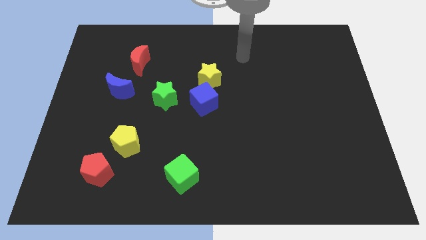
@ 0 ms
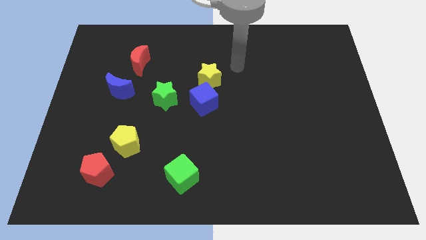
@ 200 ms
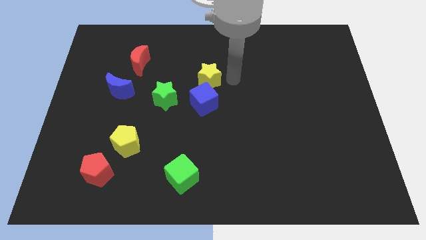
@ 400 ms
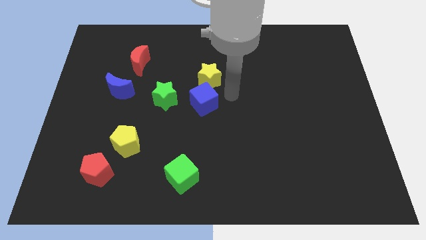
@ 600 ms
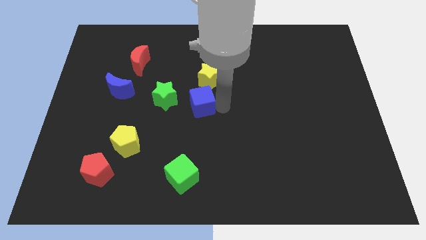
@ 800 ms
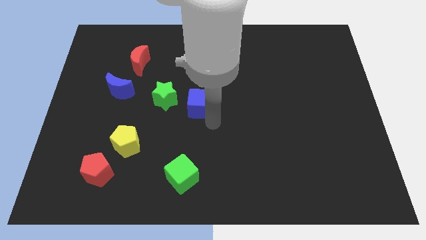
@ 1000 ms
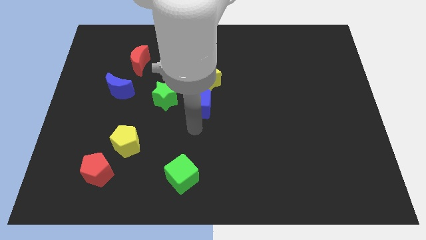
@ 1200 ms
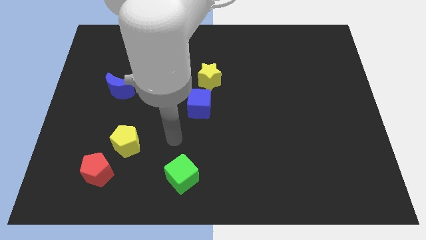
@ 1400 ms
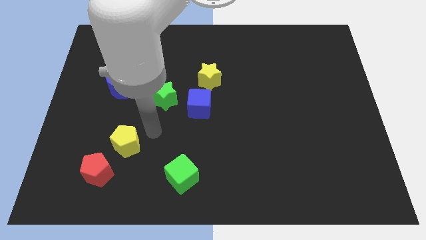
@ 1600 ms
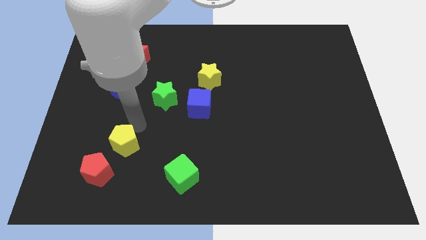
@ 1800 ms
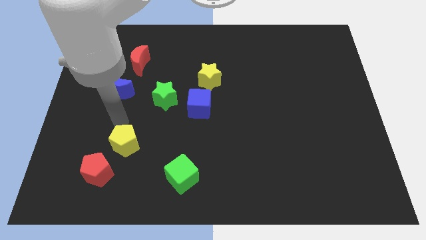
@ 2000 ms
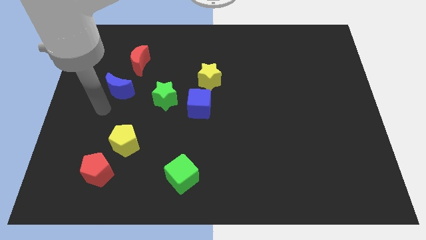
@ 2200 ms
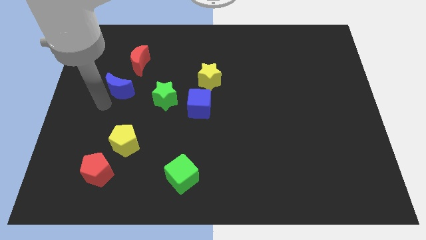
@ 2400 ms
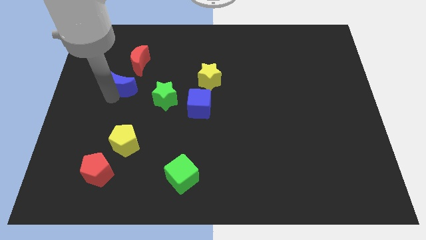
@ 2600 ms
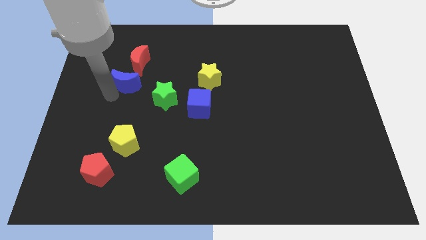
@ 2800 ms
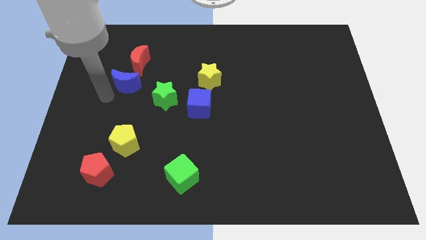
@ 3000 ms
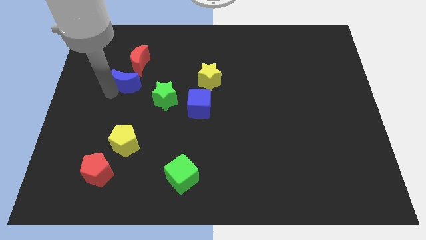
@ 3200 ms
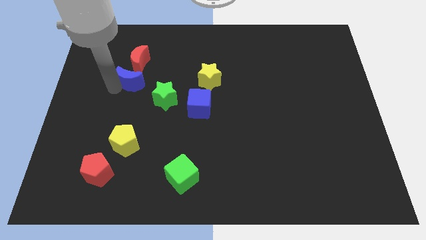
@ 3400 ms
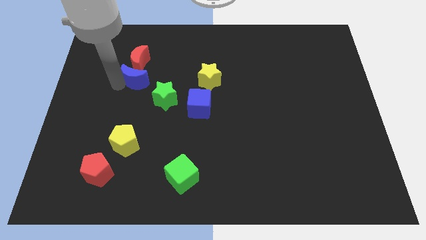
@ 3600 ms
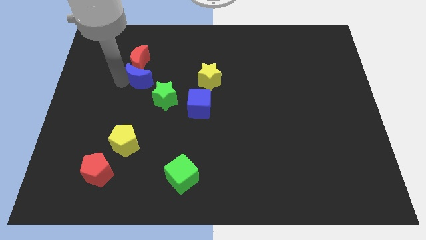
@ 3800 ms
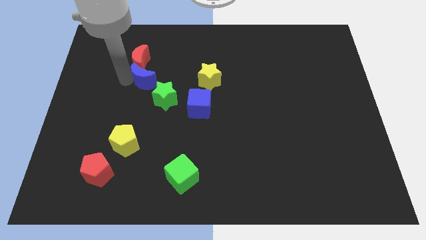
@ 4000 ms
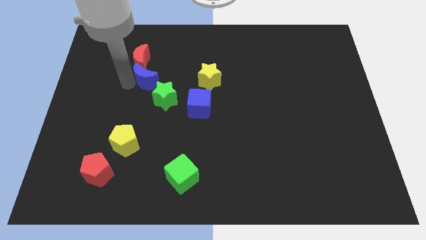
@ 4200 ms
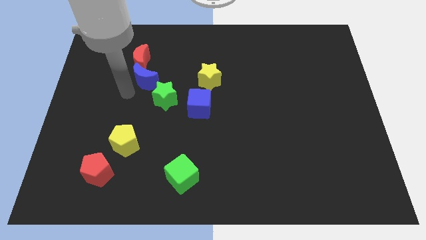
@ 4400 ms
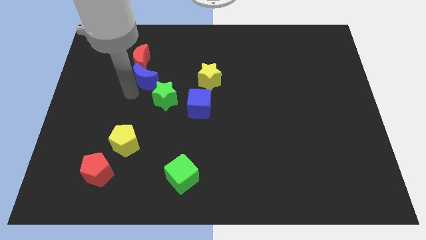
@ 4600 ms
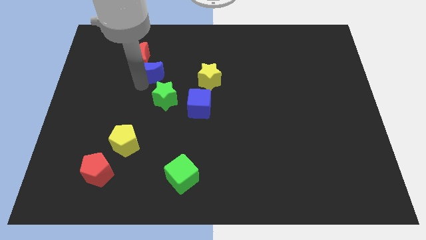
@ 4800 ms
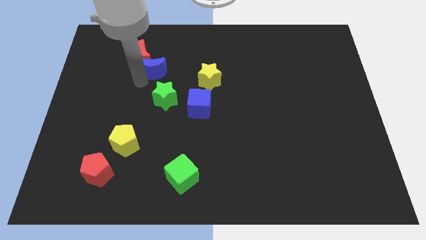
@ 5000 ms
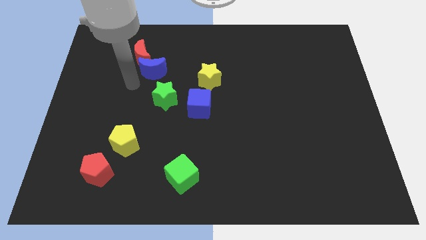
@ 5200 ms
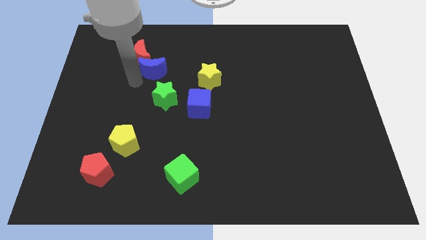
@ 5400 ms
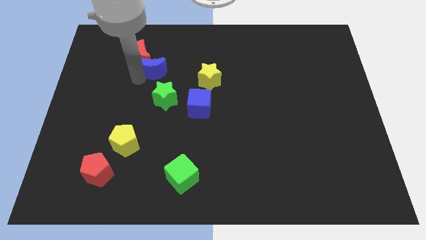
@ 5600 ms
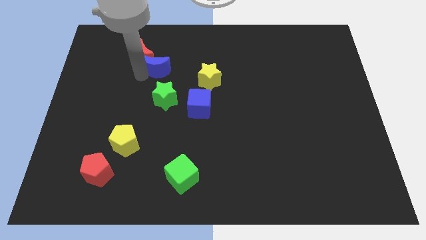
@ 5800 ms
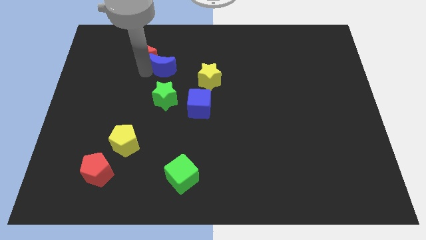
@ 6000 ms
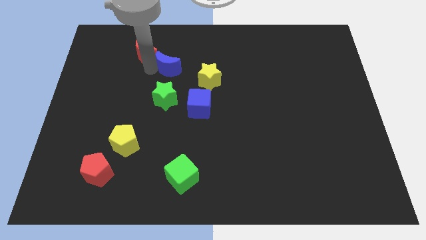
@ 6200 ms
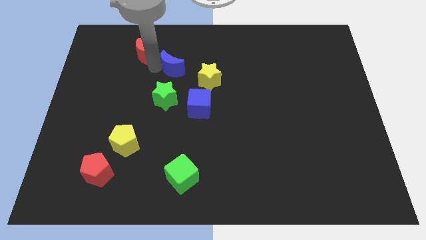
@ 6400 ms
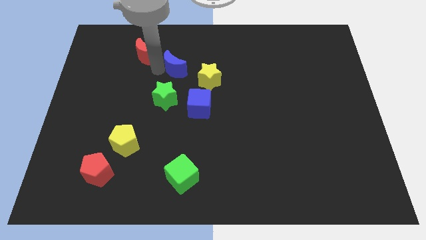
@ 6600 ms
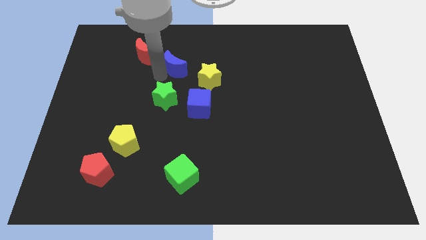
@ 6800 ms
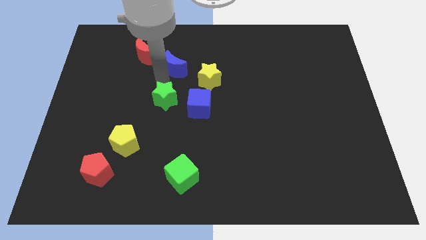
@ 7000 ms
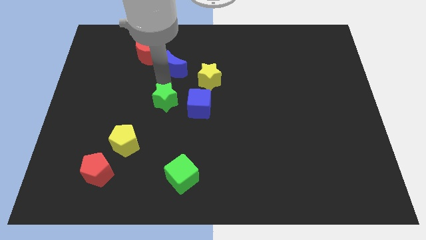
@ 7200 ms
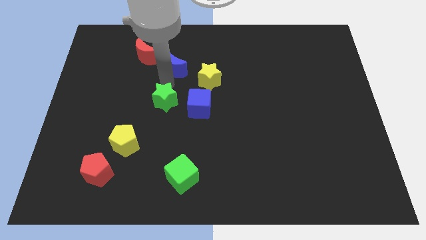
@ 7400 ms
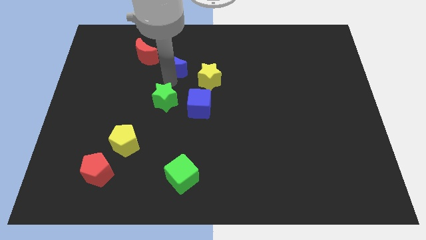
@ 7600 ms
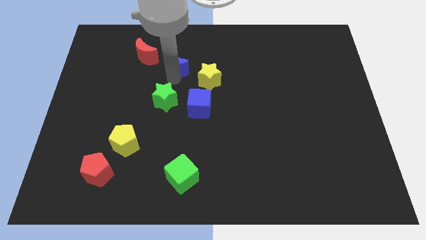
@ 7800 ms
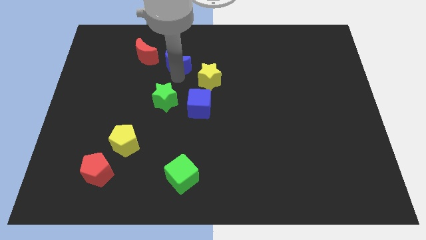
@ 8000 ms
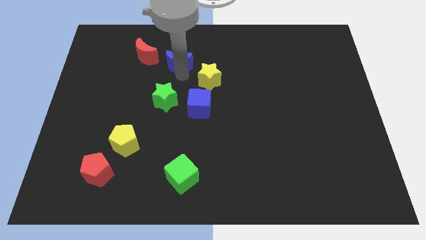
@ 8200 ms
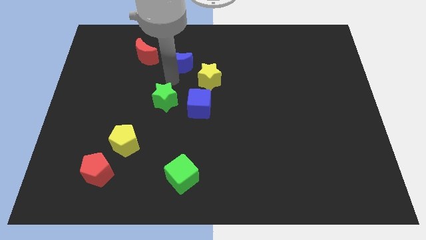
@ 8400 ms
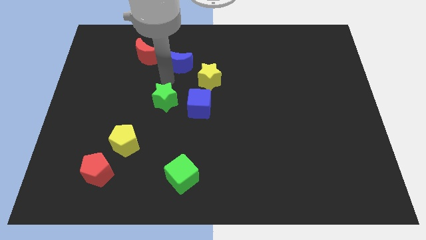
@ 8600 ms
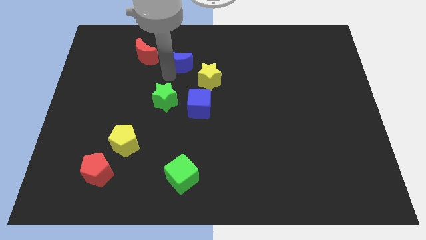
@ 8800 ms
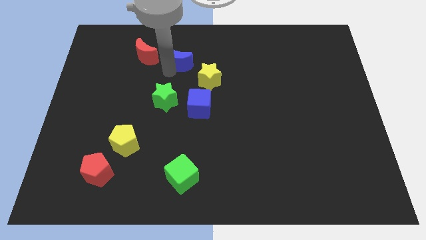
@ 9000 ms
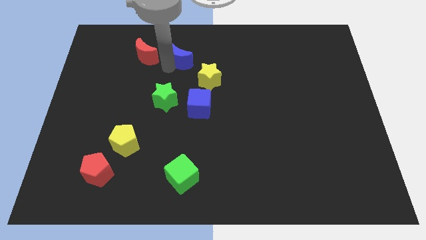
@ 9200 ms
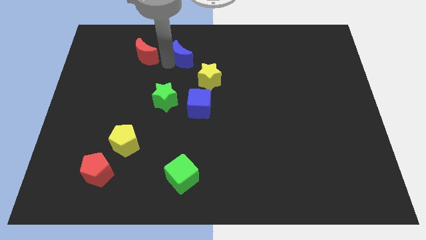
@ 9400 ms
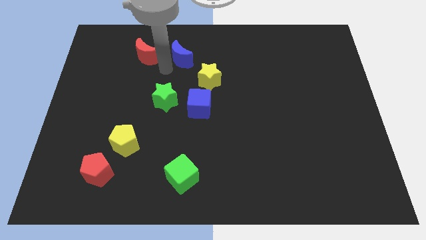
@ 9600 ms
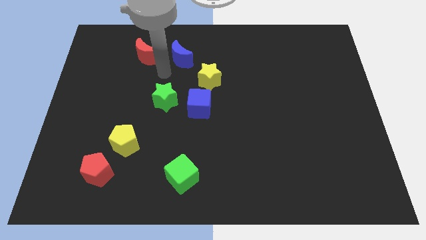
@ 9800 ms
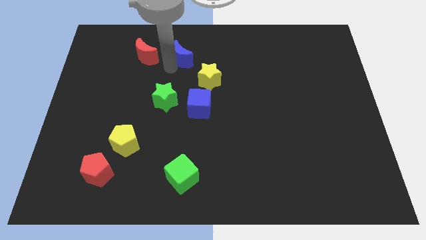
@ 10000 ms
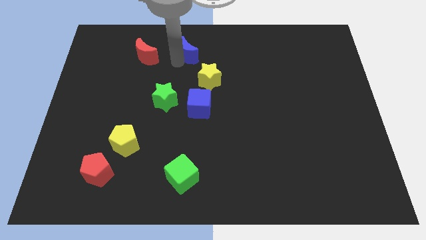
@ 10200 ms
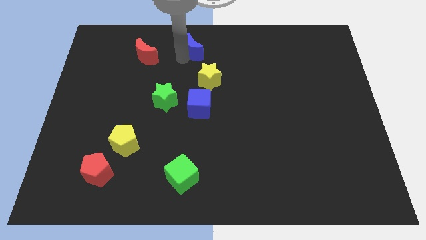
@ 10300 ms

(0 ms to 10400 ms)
slide the blue moon to the top side

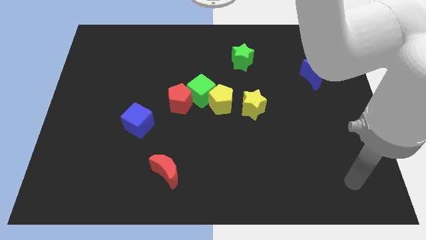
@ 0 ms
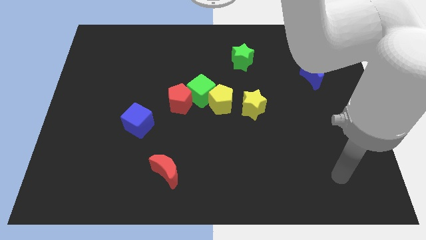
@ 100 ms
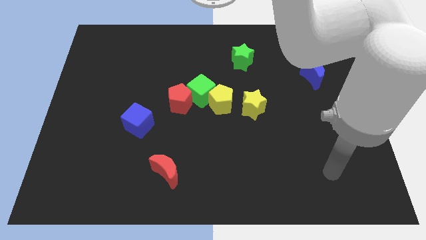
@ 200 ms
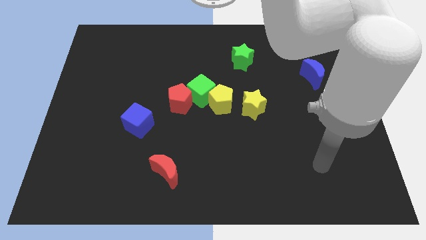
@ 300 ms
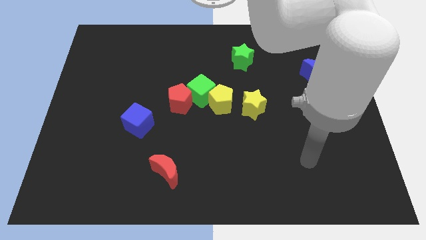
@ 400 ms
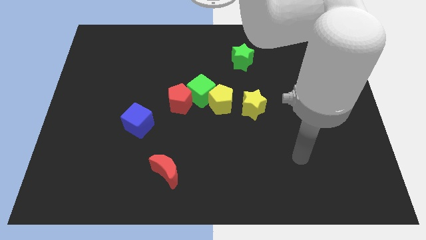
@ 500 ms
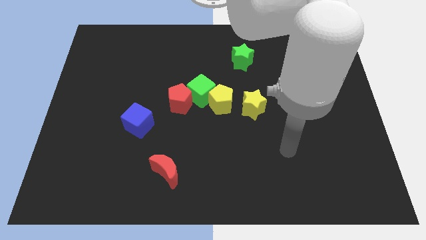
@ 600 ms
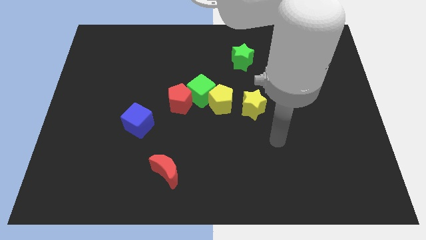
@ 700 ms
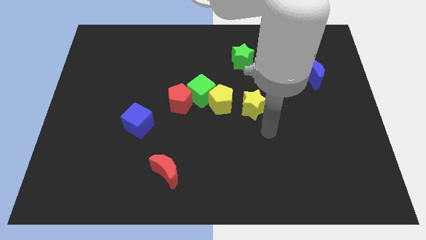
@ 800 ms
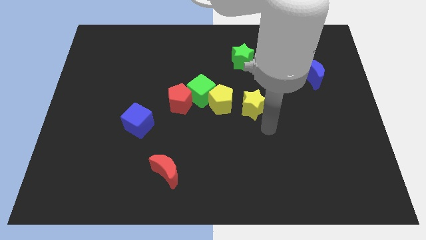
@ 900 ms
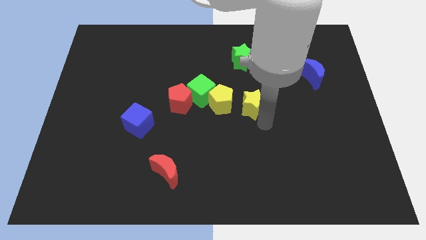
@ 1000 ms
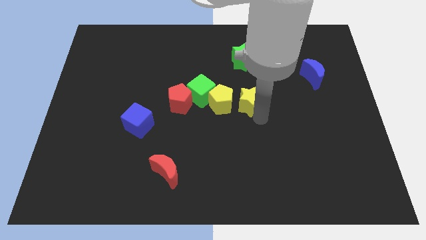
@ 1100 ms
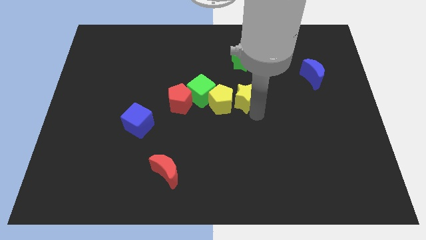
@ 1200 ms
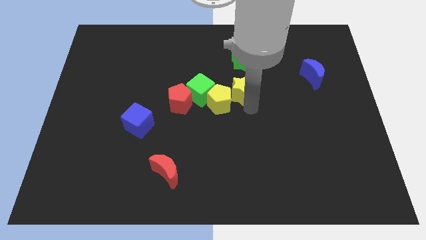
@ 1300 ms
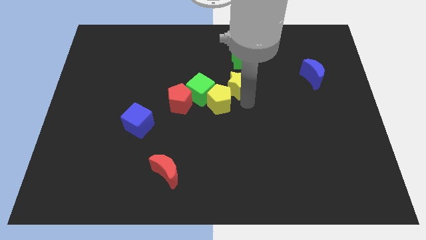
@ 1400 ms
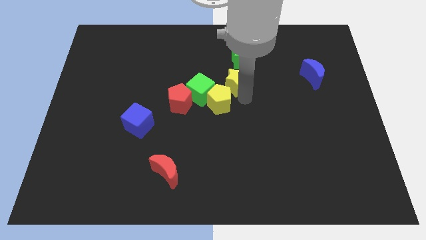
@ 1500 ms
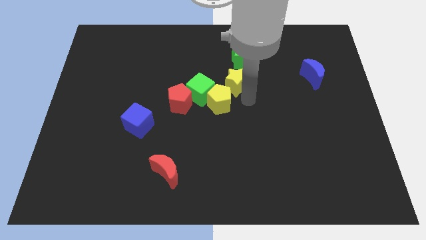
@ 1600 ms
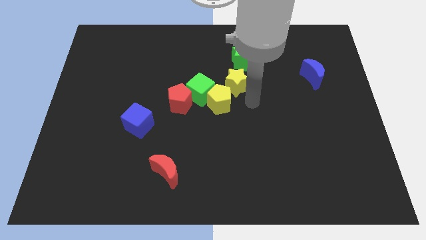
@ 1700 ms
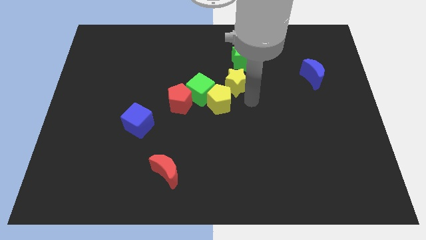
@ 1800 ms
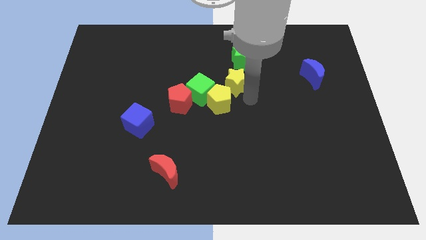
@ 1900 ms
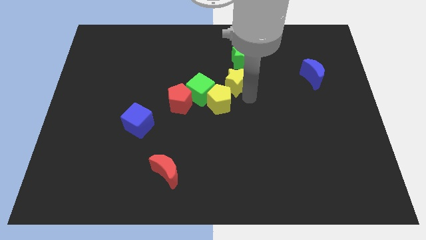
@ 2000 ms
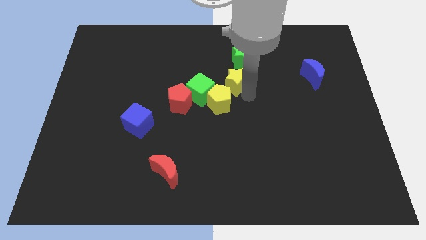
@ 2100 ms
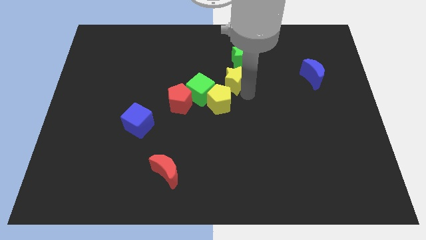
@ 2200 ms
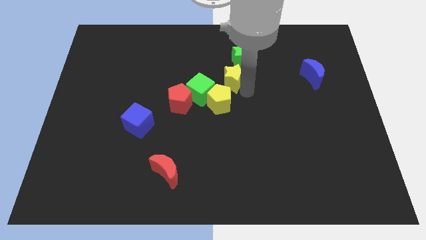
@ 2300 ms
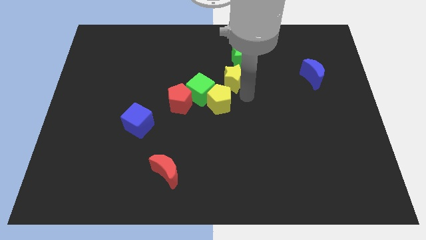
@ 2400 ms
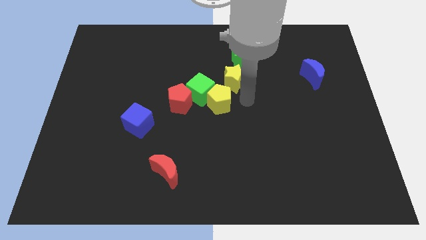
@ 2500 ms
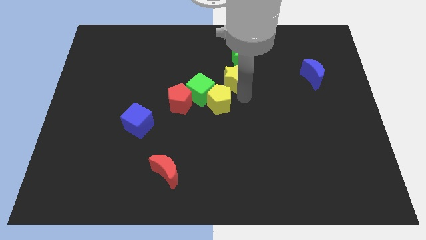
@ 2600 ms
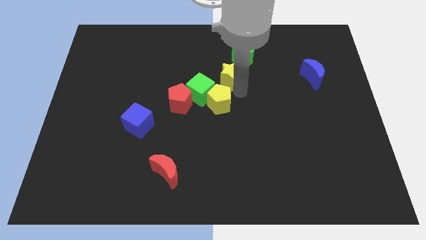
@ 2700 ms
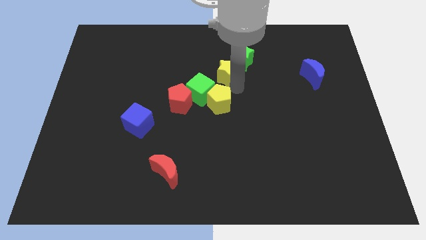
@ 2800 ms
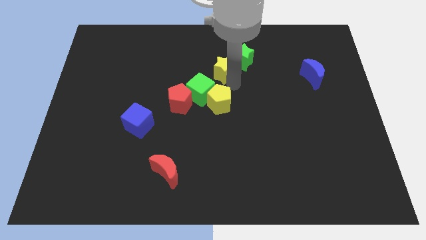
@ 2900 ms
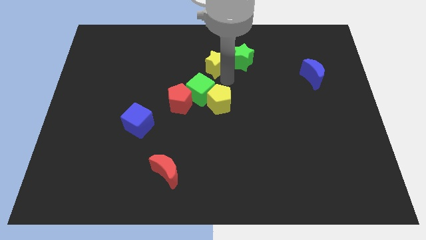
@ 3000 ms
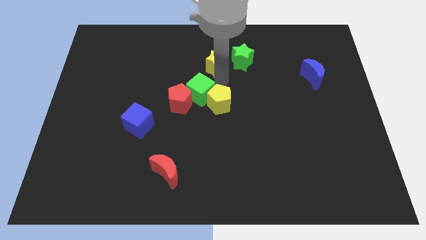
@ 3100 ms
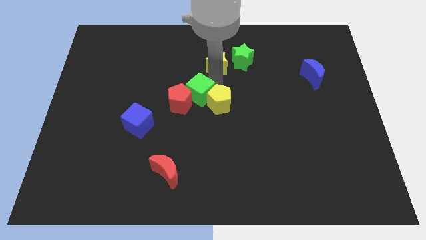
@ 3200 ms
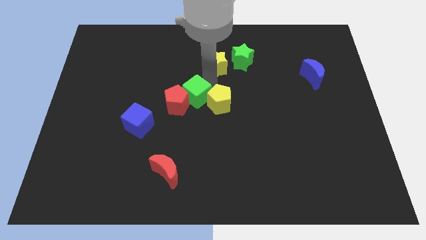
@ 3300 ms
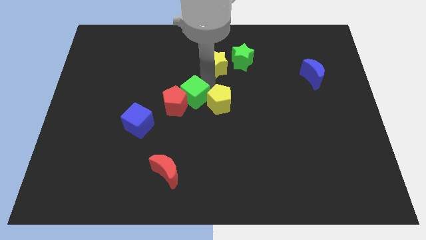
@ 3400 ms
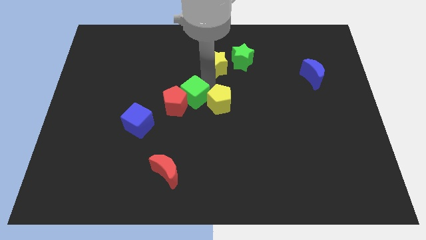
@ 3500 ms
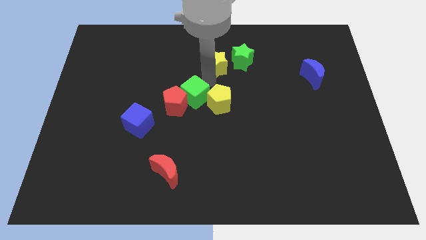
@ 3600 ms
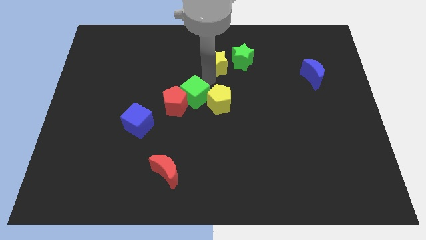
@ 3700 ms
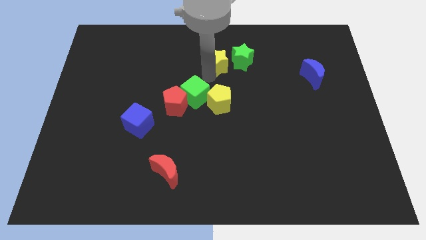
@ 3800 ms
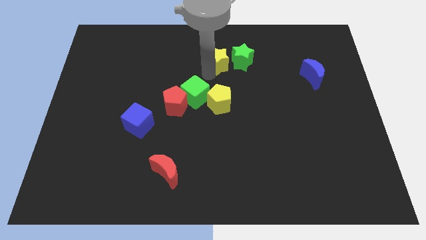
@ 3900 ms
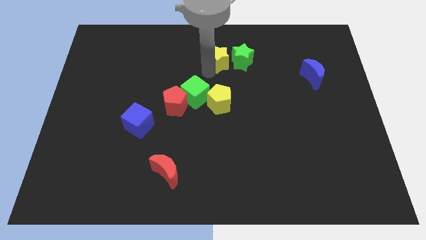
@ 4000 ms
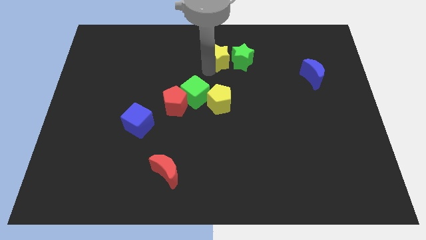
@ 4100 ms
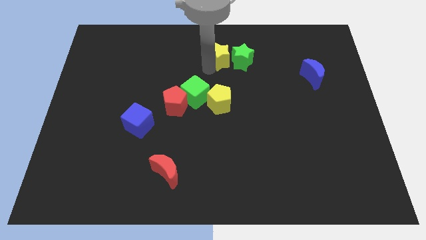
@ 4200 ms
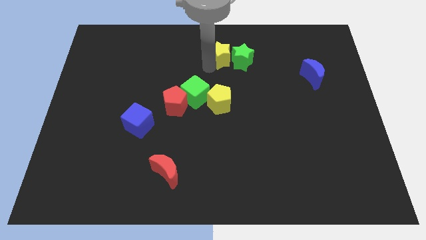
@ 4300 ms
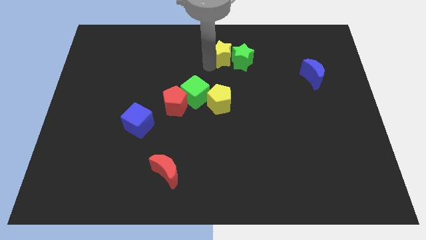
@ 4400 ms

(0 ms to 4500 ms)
push the yellow star to the top side
